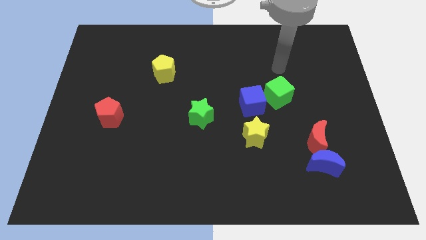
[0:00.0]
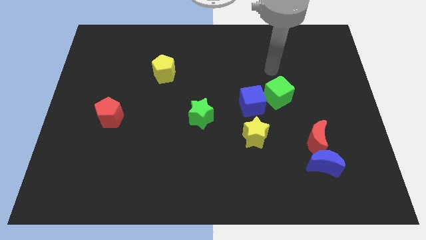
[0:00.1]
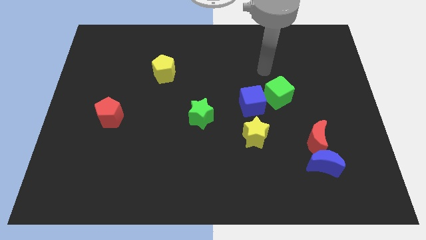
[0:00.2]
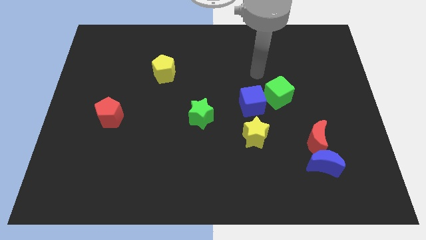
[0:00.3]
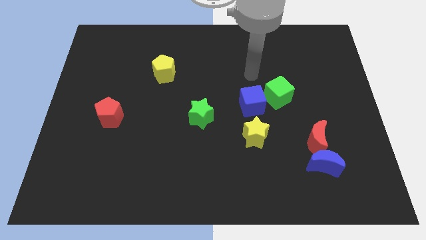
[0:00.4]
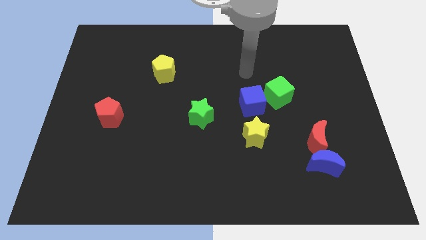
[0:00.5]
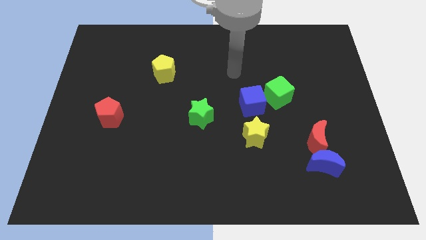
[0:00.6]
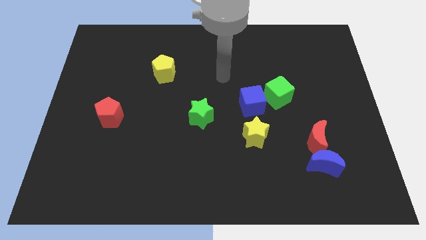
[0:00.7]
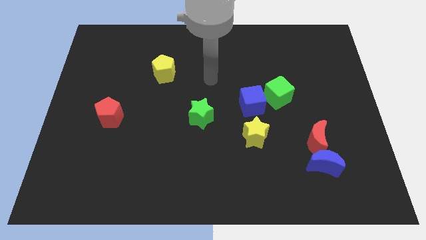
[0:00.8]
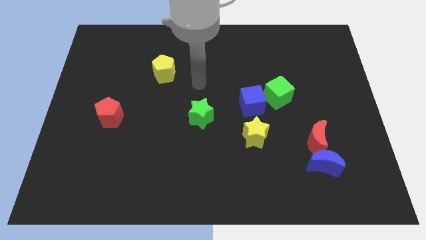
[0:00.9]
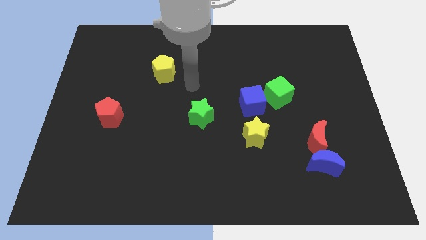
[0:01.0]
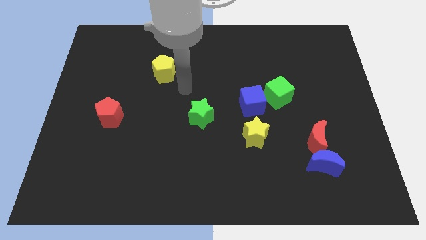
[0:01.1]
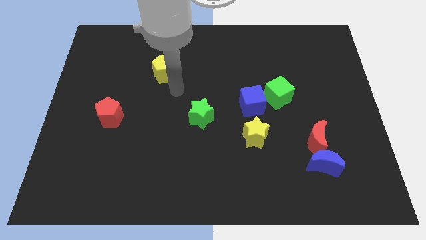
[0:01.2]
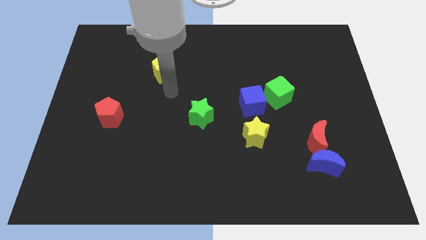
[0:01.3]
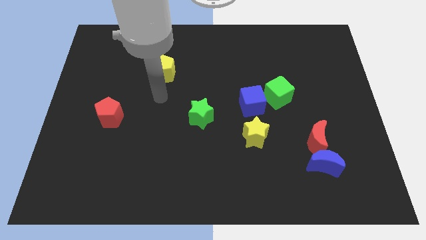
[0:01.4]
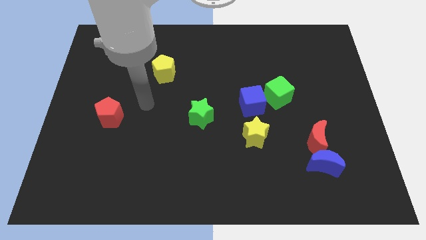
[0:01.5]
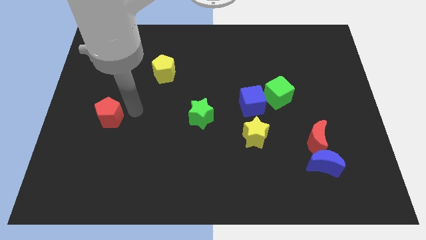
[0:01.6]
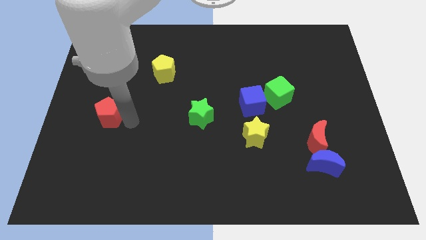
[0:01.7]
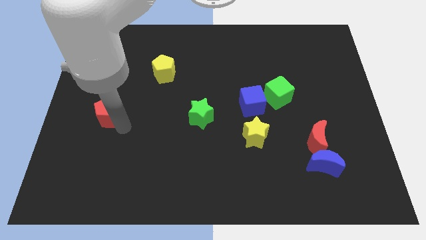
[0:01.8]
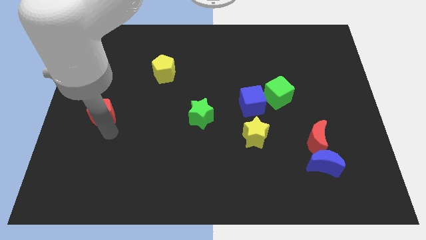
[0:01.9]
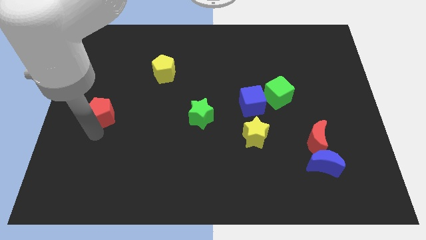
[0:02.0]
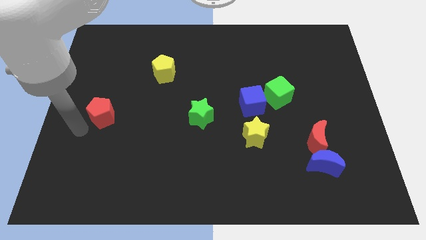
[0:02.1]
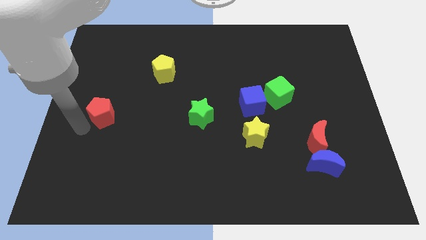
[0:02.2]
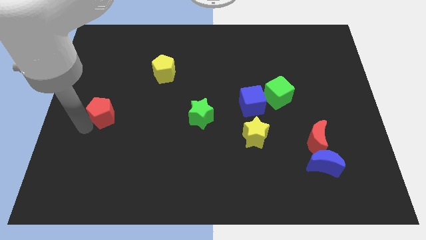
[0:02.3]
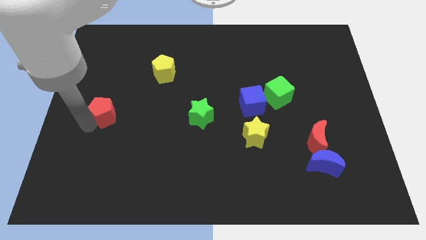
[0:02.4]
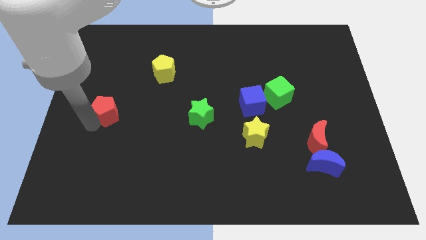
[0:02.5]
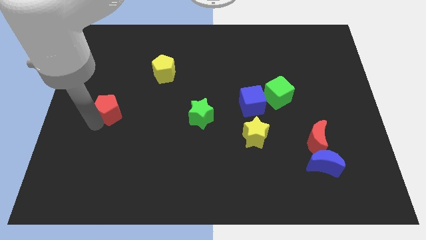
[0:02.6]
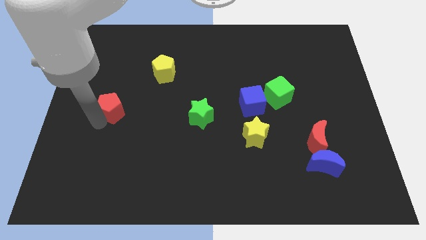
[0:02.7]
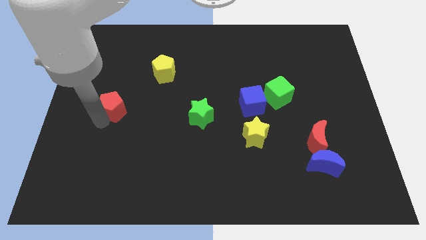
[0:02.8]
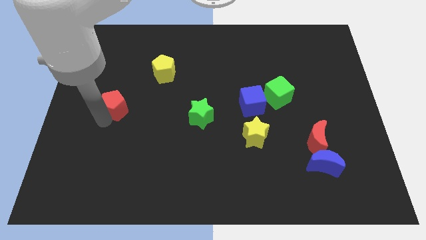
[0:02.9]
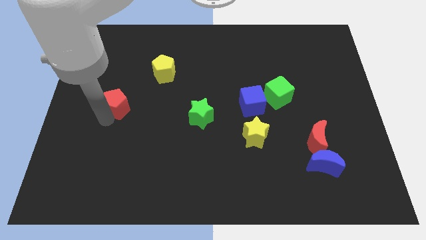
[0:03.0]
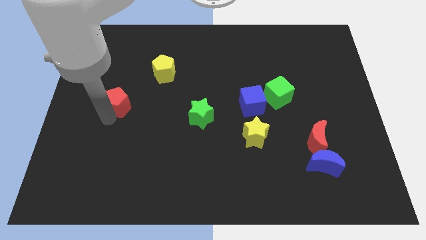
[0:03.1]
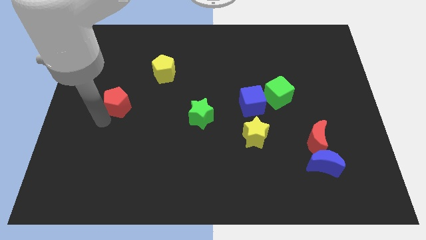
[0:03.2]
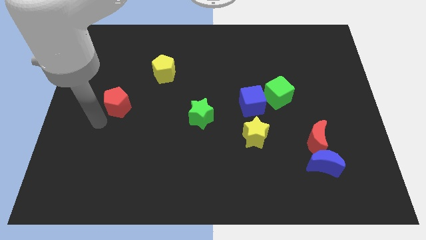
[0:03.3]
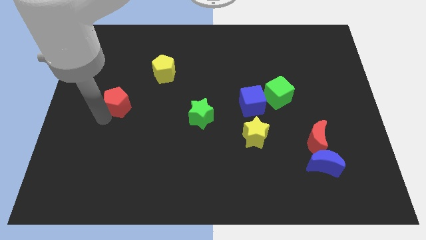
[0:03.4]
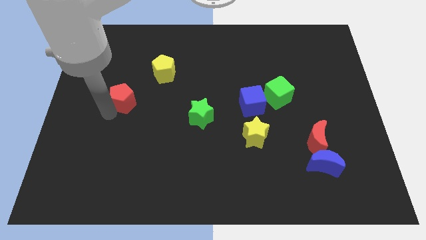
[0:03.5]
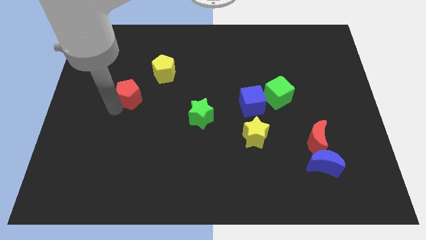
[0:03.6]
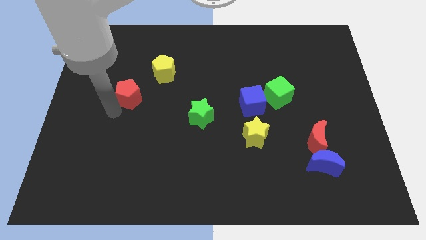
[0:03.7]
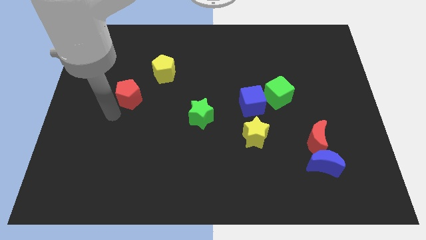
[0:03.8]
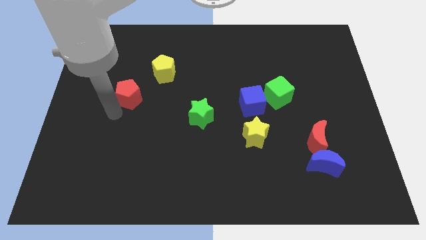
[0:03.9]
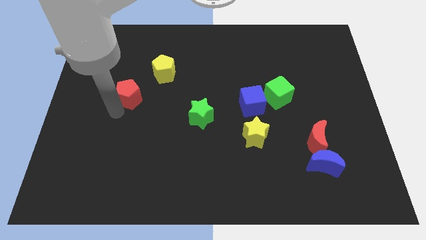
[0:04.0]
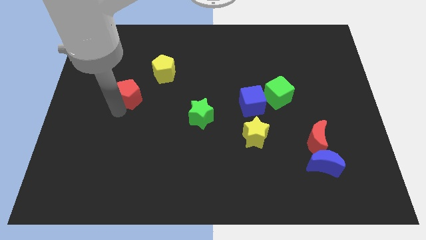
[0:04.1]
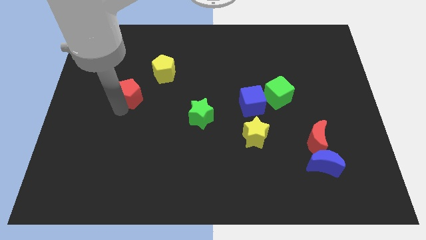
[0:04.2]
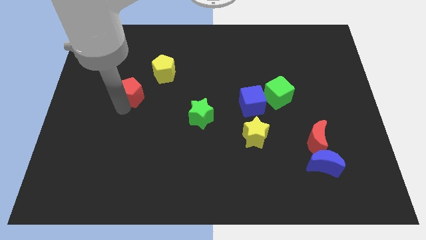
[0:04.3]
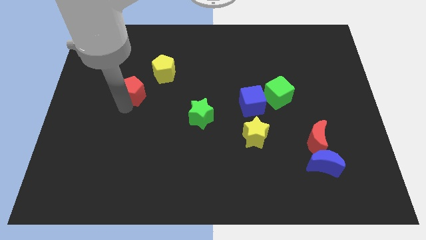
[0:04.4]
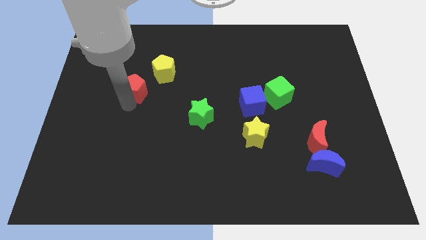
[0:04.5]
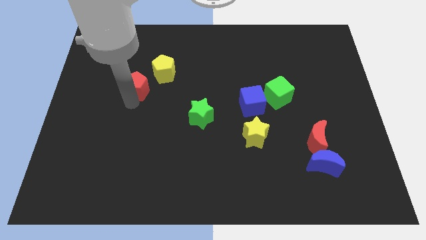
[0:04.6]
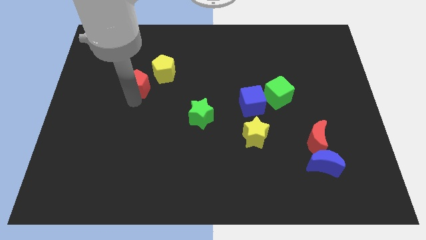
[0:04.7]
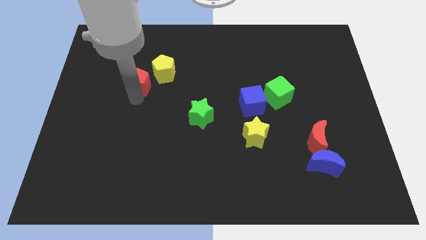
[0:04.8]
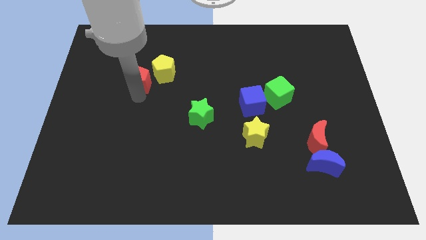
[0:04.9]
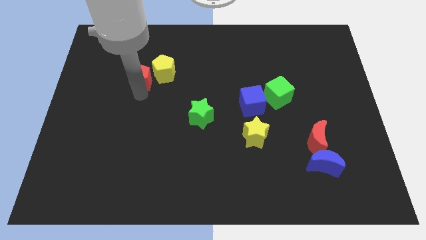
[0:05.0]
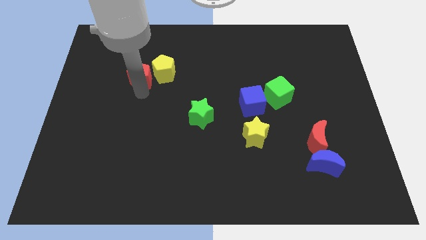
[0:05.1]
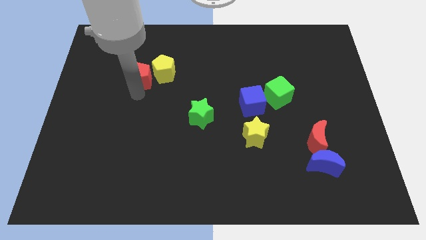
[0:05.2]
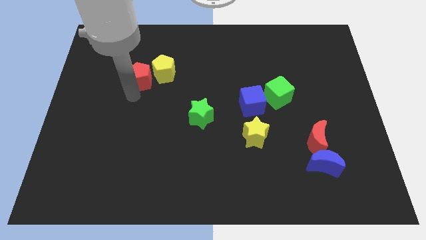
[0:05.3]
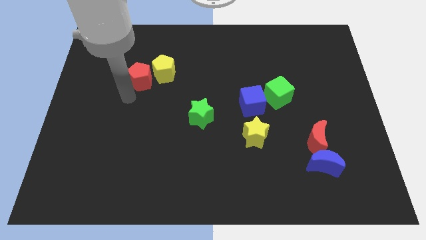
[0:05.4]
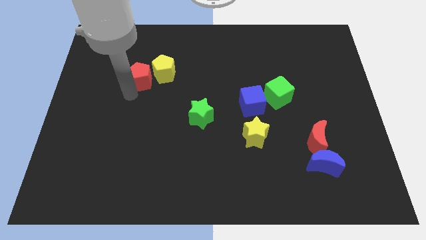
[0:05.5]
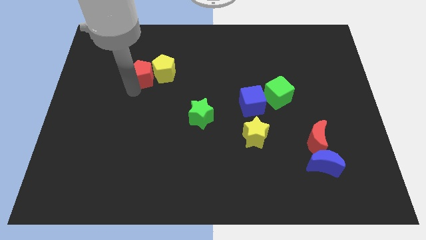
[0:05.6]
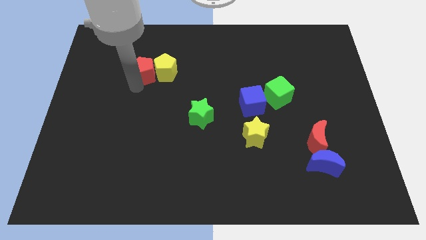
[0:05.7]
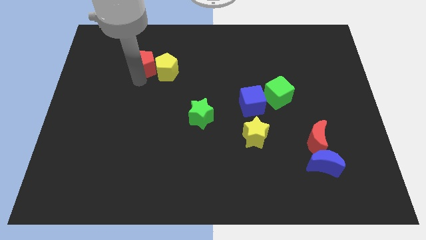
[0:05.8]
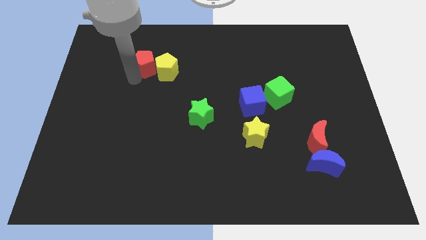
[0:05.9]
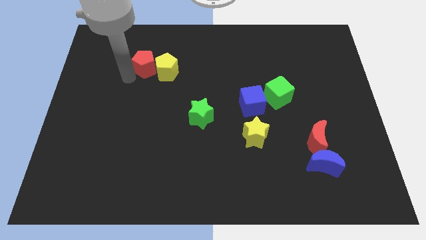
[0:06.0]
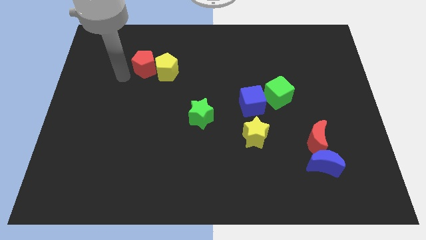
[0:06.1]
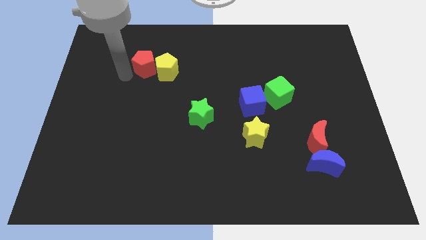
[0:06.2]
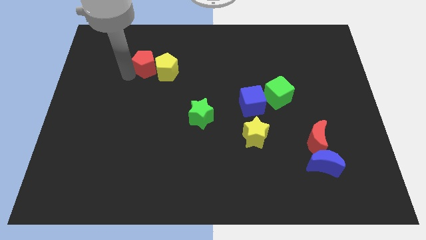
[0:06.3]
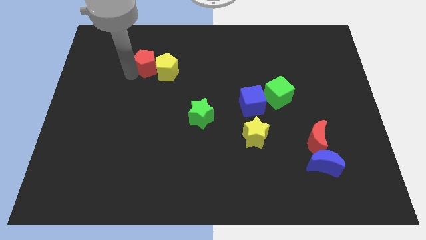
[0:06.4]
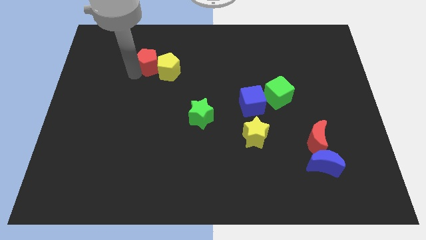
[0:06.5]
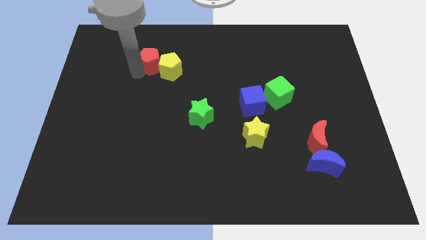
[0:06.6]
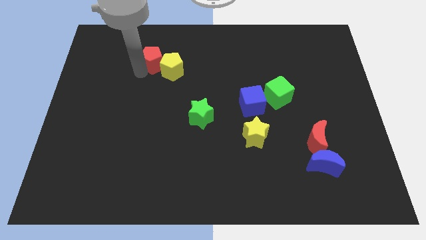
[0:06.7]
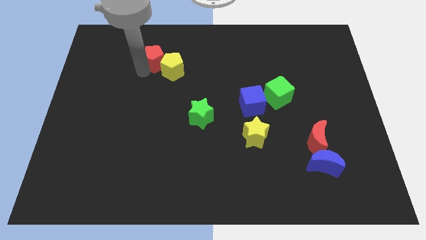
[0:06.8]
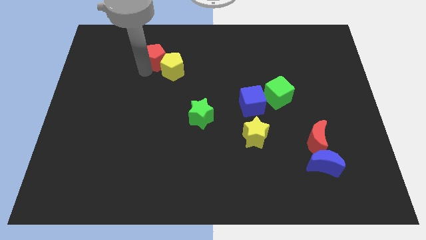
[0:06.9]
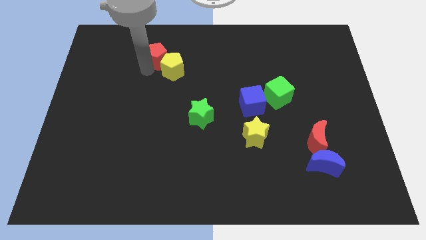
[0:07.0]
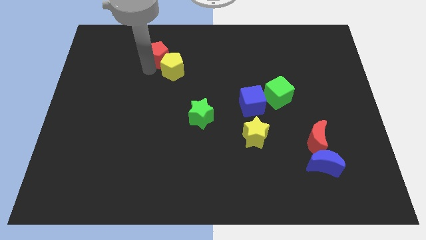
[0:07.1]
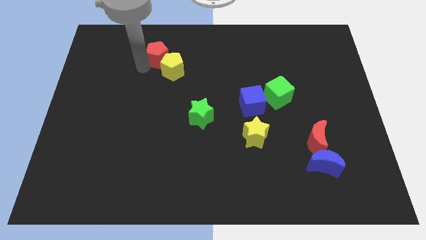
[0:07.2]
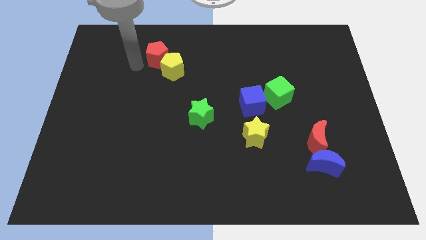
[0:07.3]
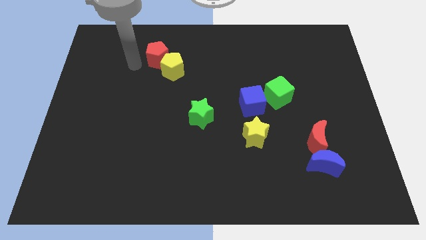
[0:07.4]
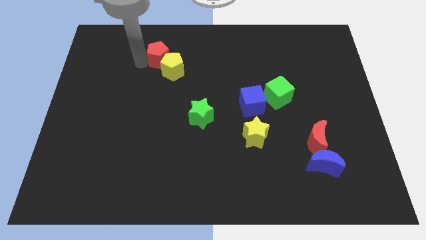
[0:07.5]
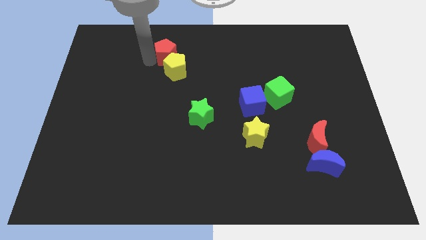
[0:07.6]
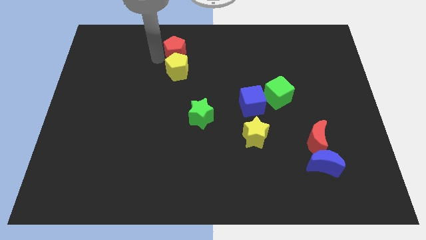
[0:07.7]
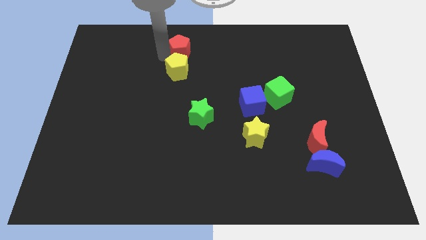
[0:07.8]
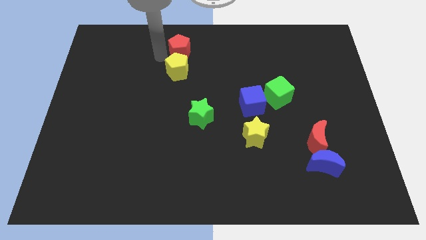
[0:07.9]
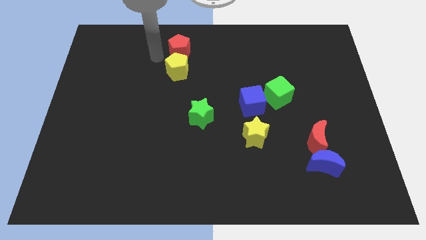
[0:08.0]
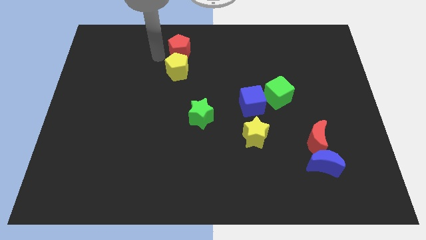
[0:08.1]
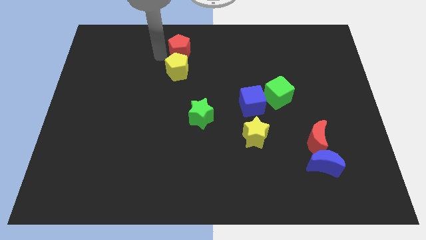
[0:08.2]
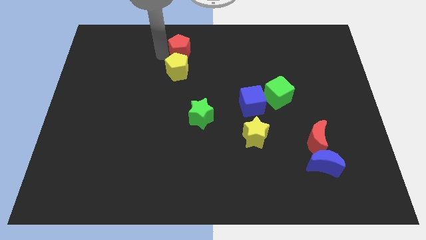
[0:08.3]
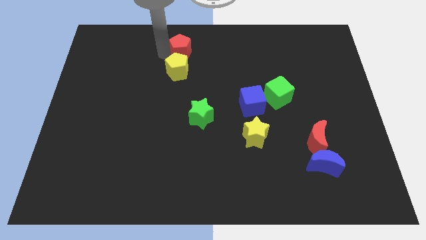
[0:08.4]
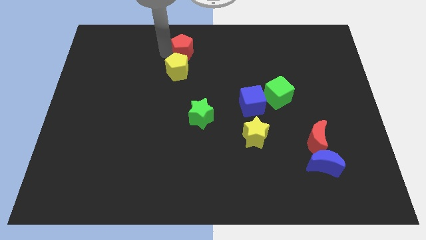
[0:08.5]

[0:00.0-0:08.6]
put the red pentagon to the top
